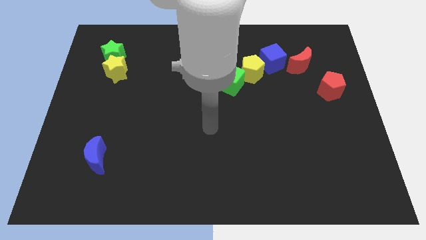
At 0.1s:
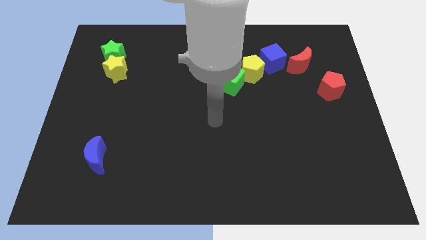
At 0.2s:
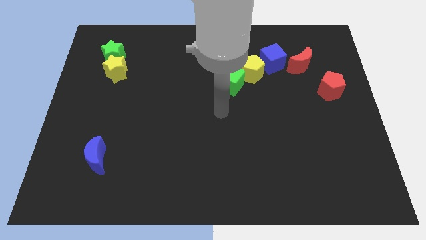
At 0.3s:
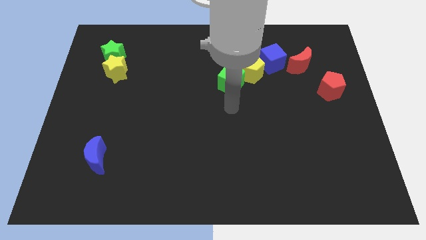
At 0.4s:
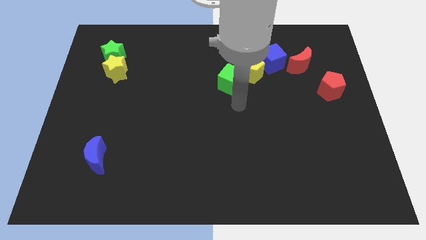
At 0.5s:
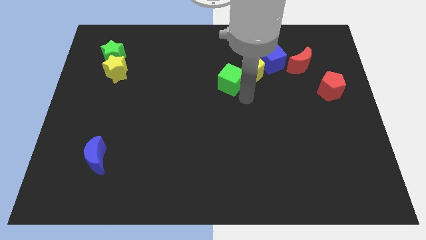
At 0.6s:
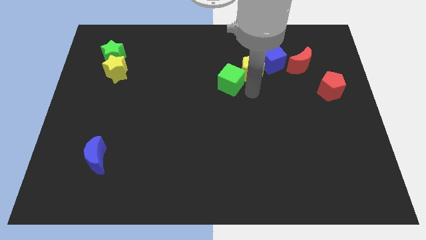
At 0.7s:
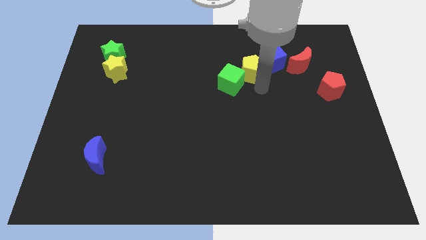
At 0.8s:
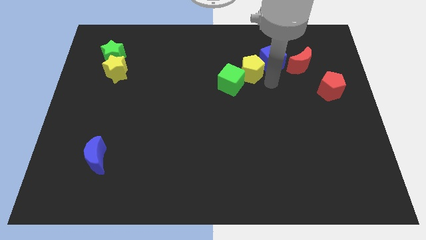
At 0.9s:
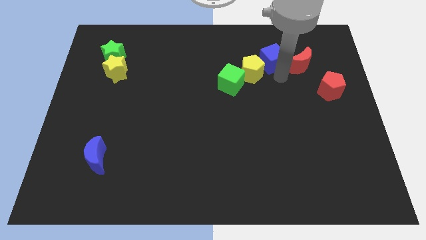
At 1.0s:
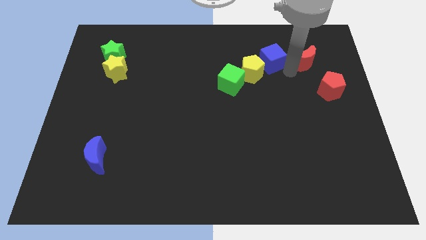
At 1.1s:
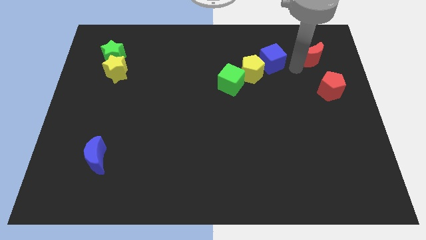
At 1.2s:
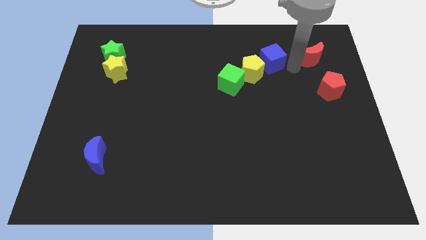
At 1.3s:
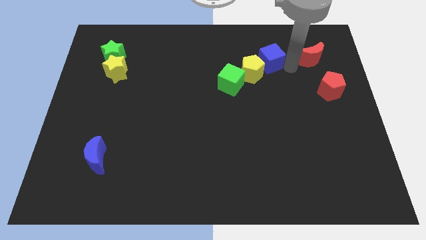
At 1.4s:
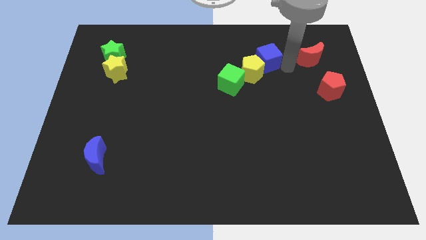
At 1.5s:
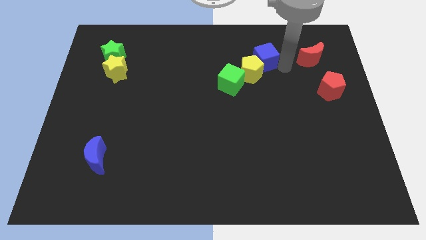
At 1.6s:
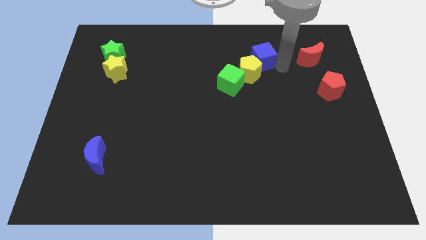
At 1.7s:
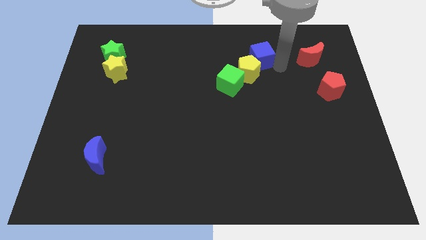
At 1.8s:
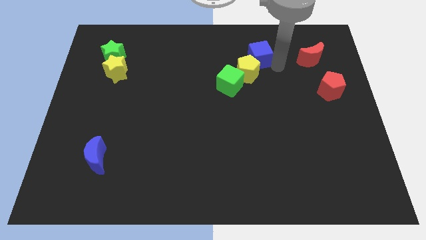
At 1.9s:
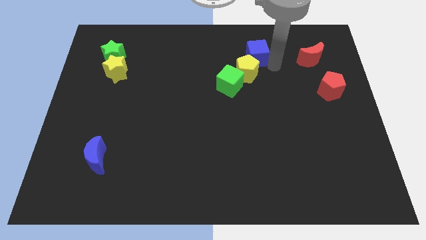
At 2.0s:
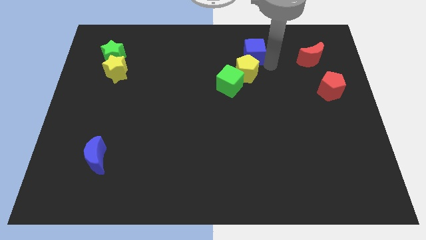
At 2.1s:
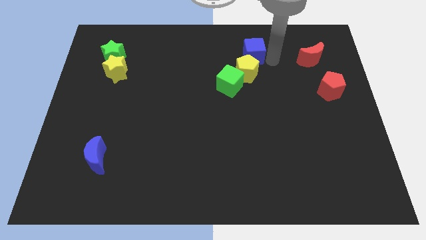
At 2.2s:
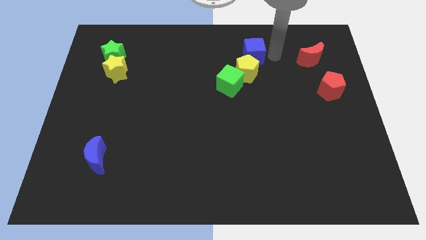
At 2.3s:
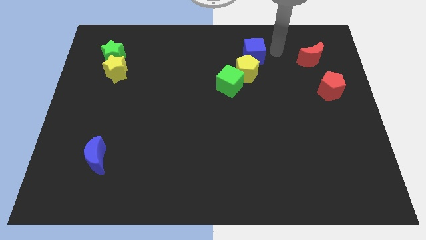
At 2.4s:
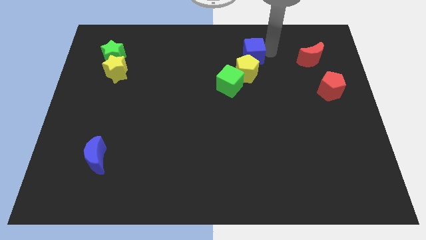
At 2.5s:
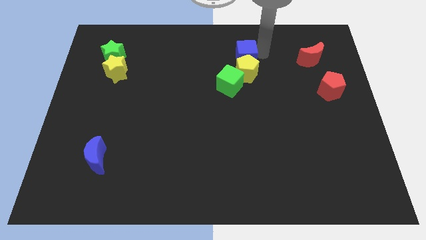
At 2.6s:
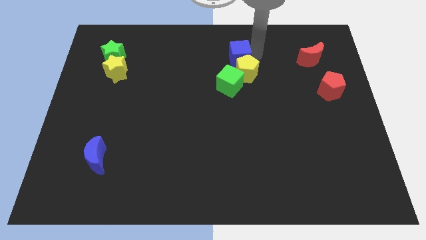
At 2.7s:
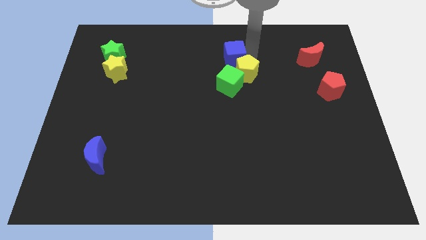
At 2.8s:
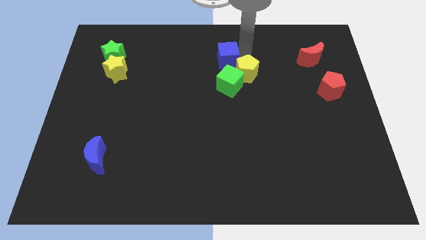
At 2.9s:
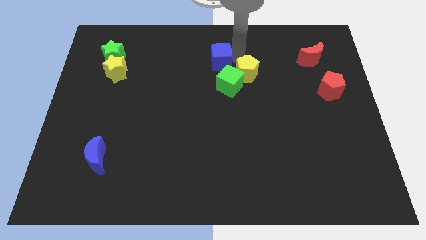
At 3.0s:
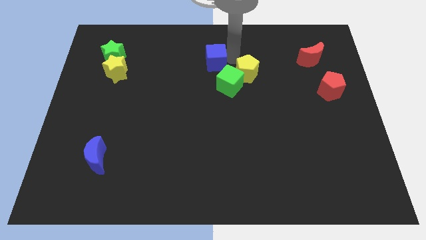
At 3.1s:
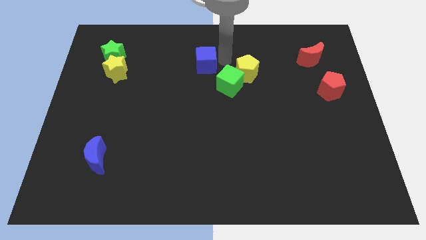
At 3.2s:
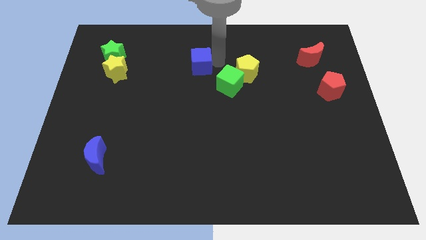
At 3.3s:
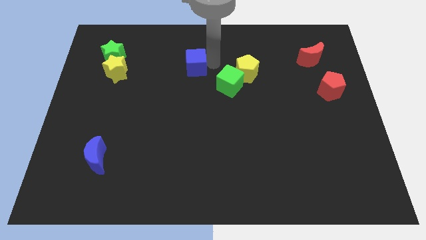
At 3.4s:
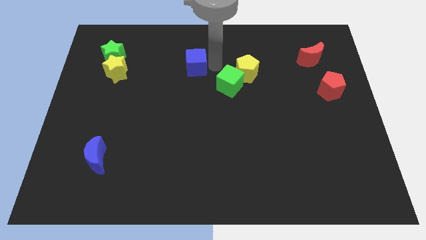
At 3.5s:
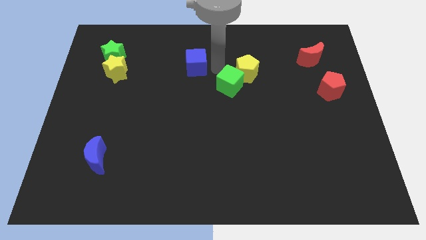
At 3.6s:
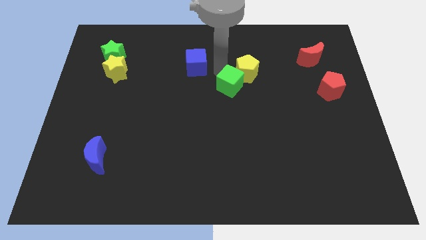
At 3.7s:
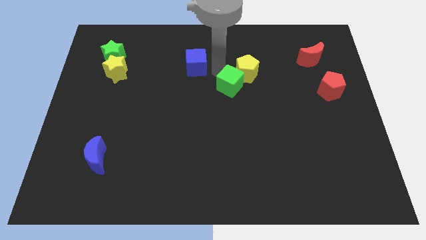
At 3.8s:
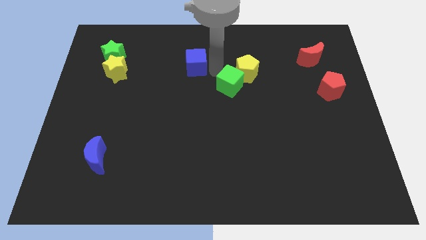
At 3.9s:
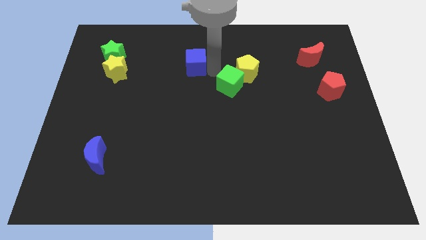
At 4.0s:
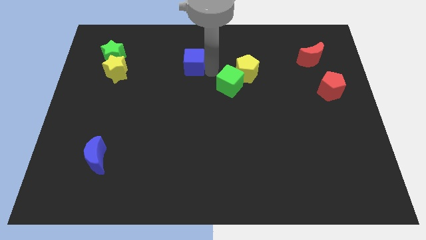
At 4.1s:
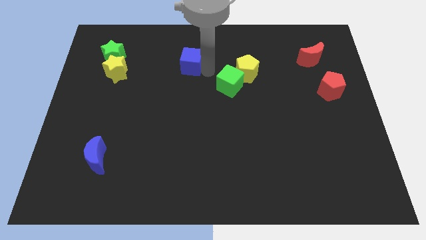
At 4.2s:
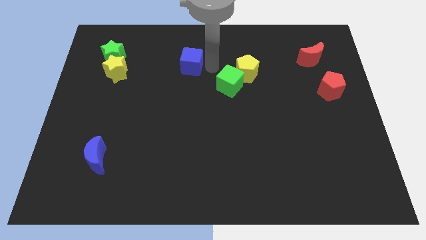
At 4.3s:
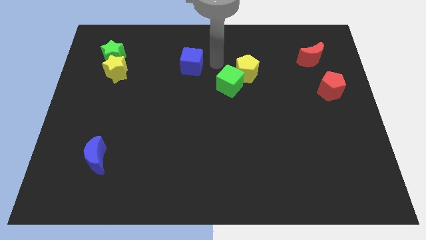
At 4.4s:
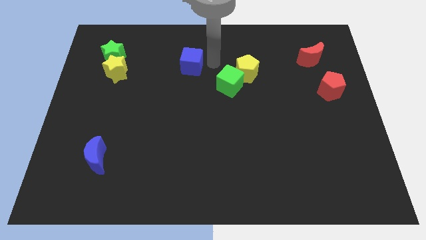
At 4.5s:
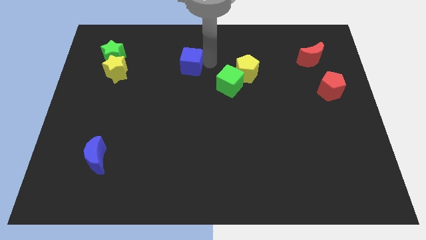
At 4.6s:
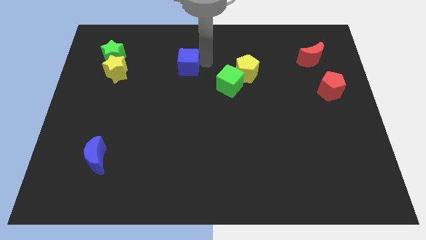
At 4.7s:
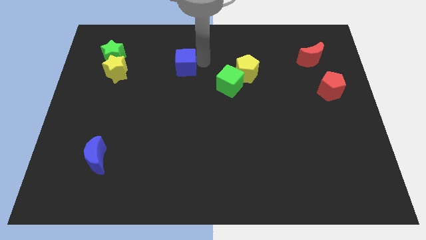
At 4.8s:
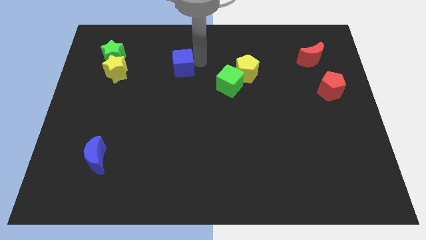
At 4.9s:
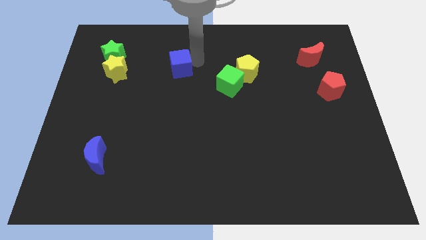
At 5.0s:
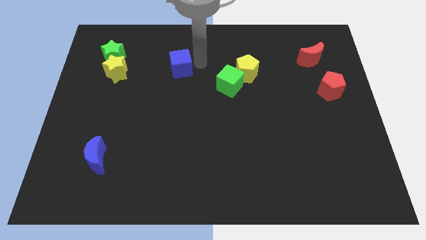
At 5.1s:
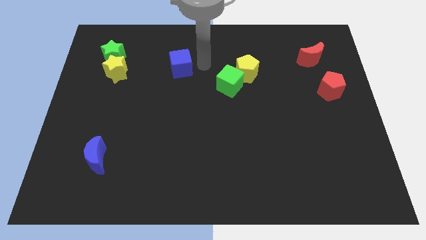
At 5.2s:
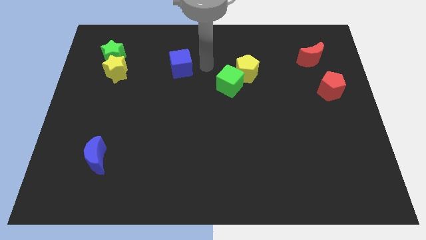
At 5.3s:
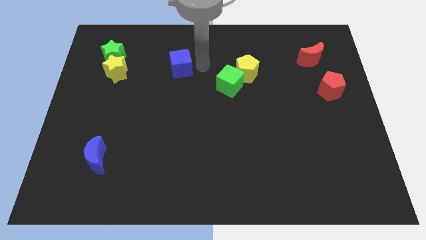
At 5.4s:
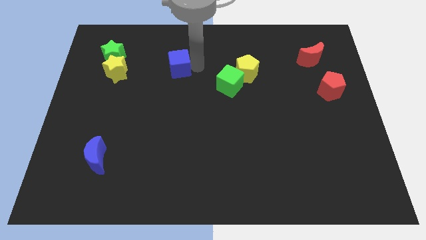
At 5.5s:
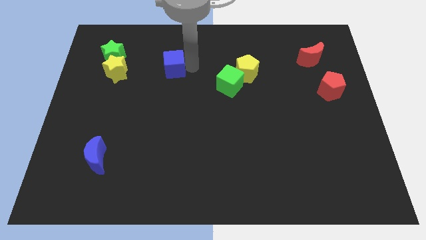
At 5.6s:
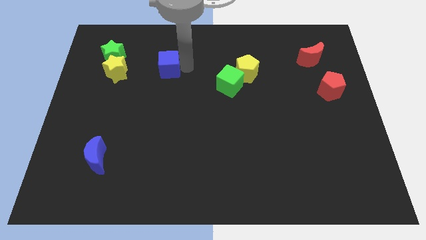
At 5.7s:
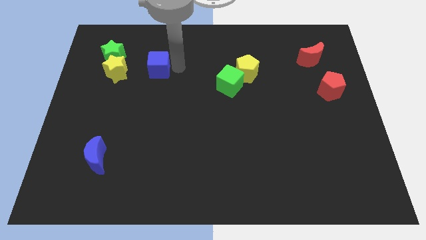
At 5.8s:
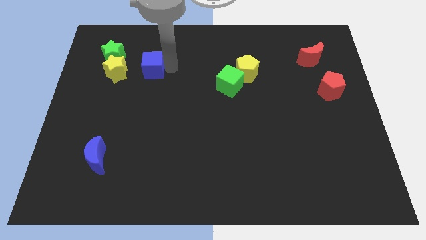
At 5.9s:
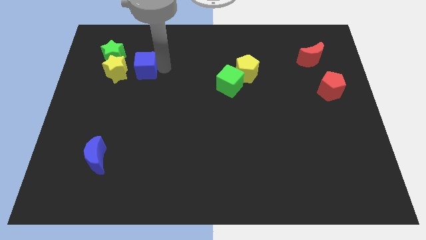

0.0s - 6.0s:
put the blue cube diagonally down and to the right of the green star

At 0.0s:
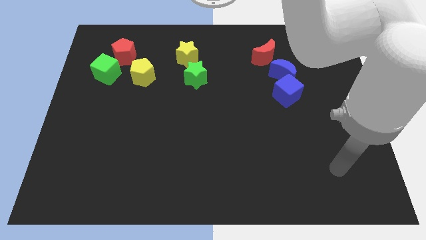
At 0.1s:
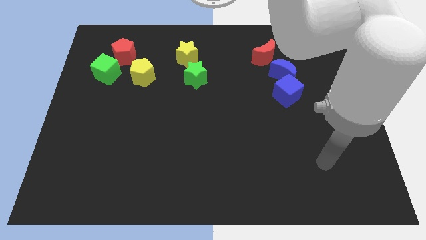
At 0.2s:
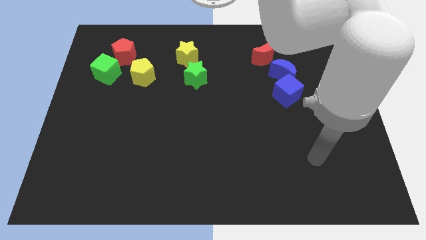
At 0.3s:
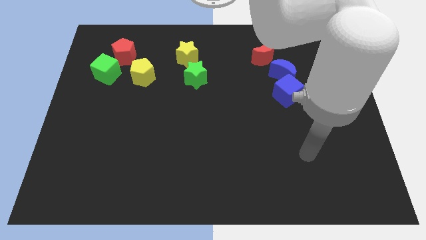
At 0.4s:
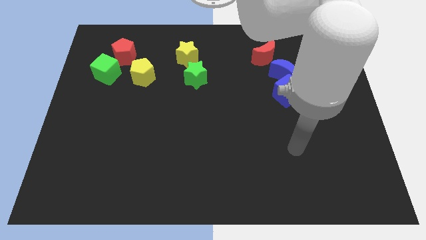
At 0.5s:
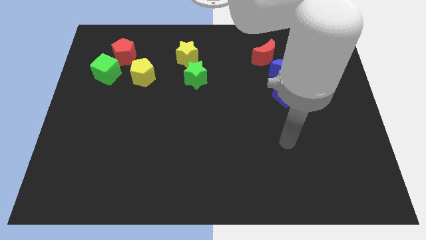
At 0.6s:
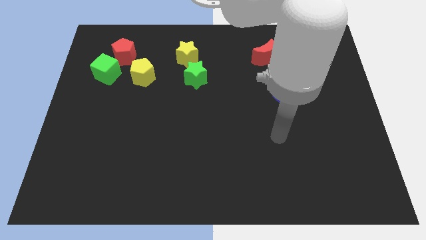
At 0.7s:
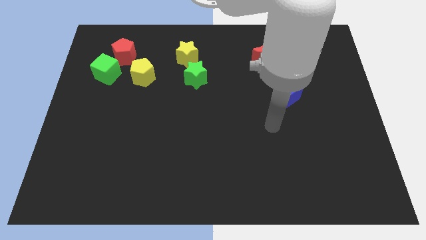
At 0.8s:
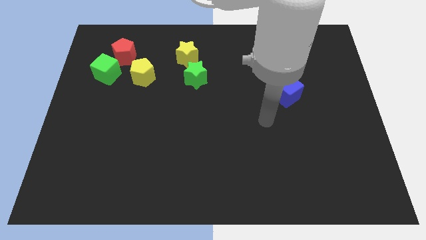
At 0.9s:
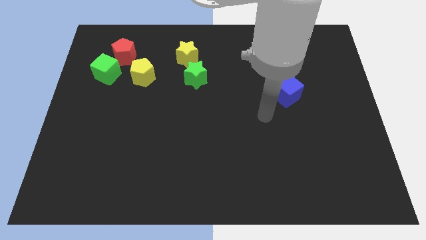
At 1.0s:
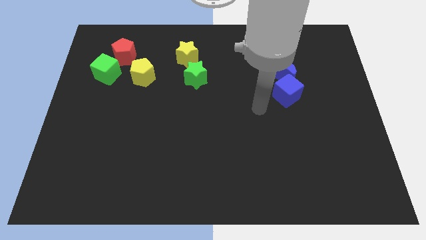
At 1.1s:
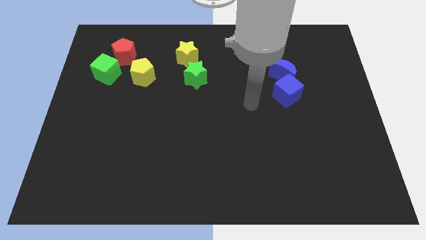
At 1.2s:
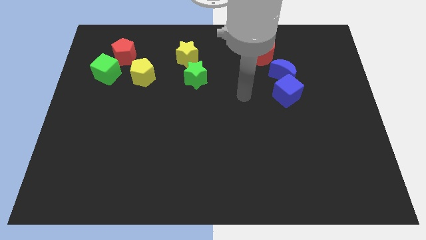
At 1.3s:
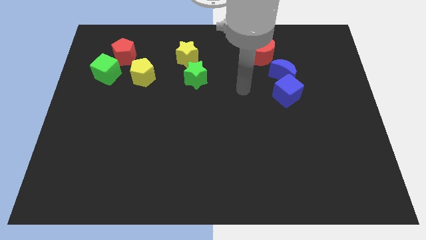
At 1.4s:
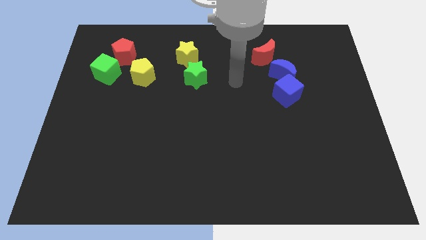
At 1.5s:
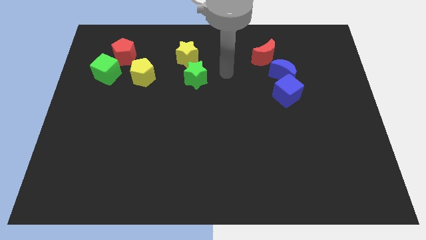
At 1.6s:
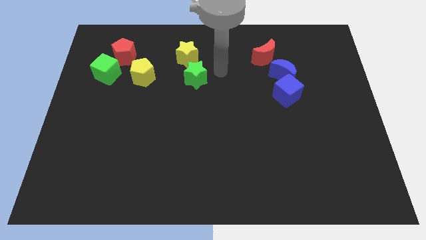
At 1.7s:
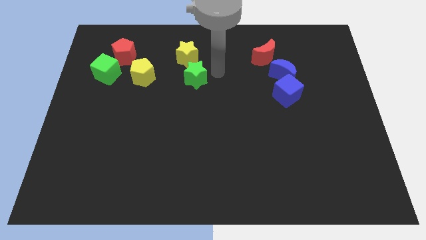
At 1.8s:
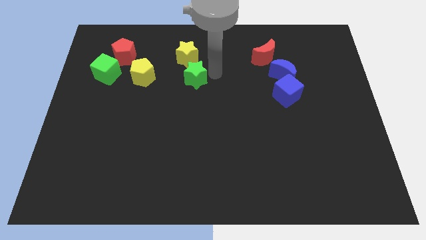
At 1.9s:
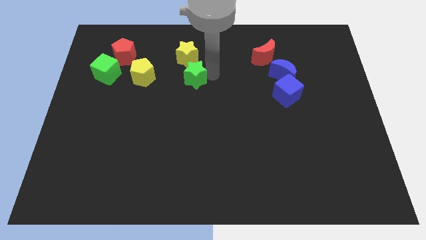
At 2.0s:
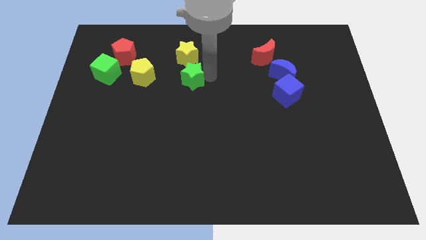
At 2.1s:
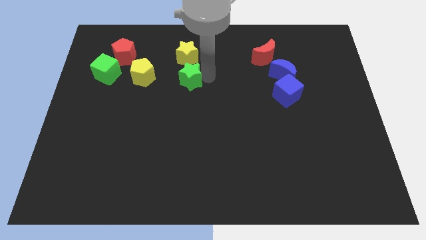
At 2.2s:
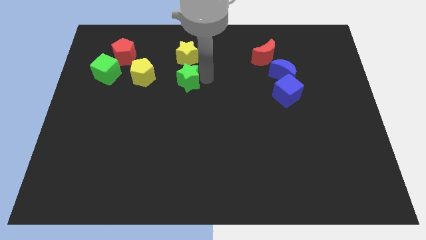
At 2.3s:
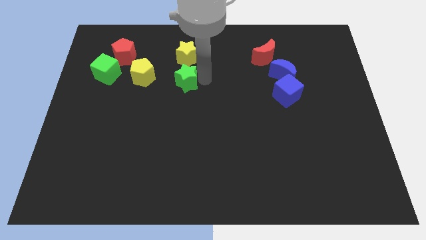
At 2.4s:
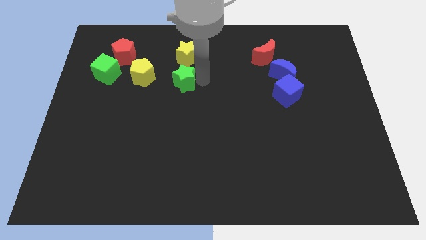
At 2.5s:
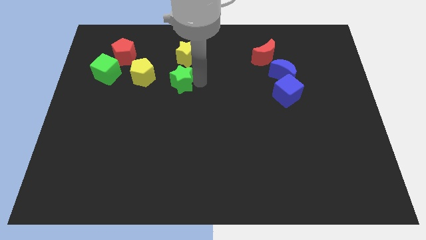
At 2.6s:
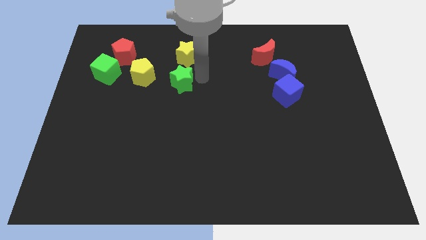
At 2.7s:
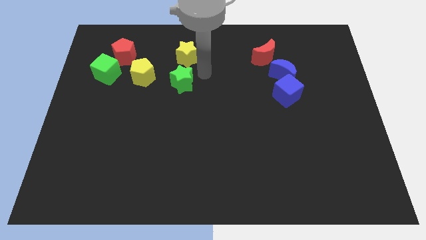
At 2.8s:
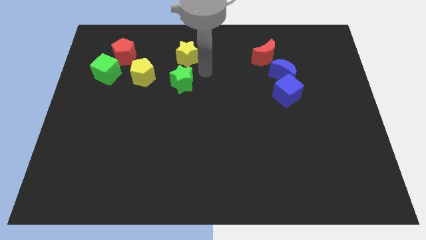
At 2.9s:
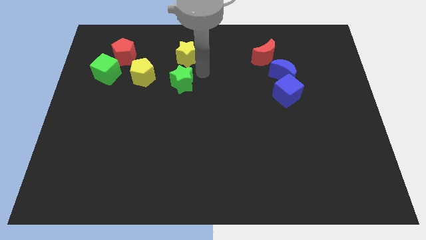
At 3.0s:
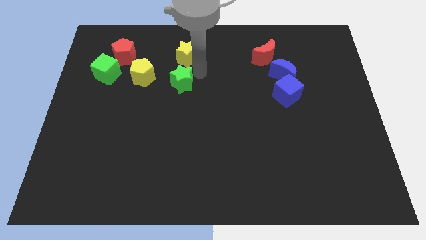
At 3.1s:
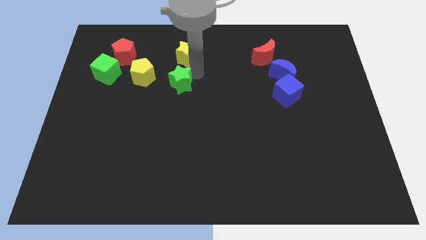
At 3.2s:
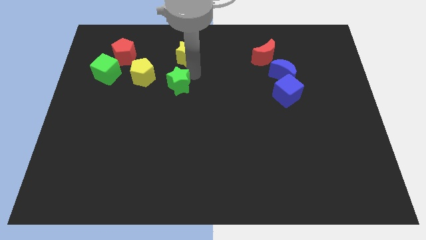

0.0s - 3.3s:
push the green star to the bottom right side of the yellow pentagon
